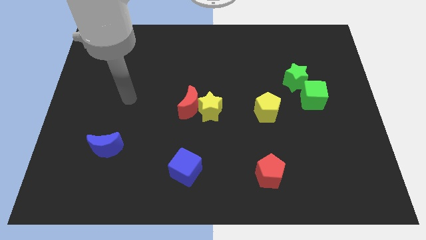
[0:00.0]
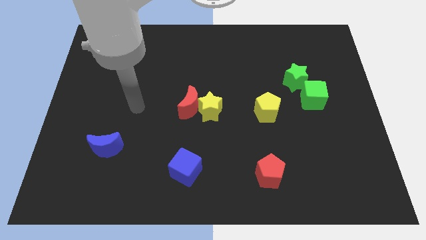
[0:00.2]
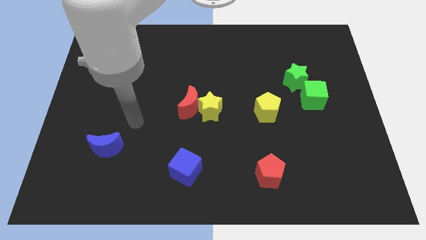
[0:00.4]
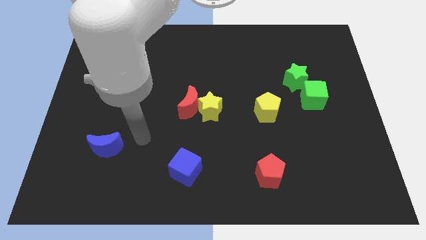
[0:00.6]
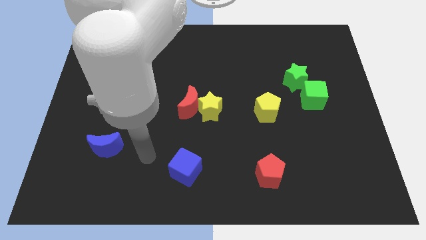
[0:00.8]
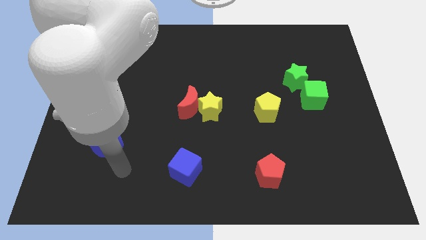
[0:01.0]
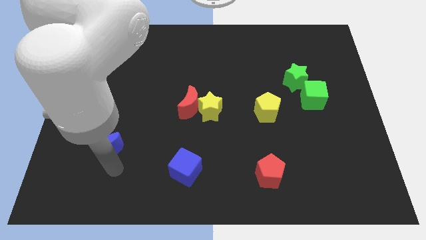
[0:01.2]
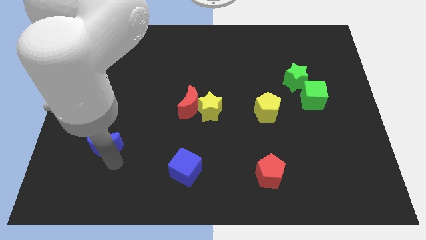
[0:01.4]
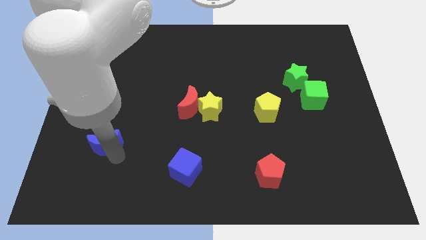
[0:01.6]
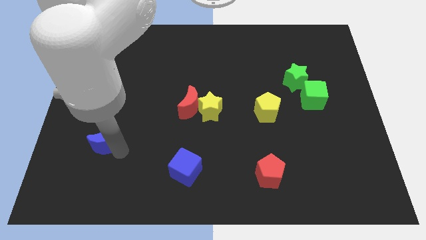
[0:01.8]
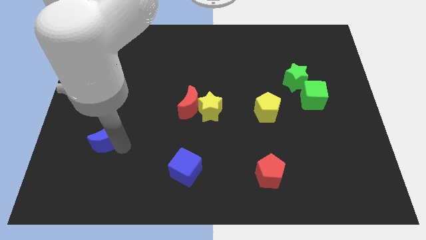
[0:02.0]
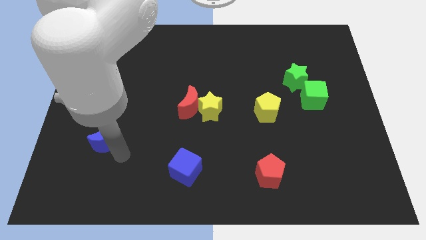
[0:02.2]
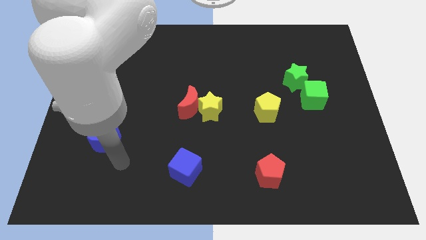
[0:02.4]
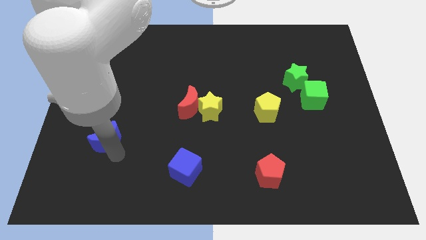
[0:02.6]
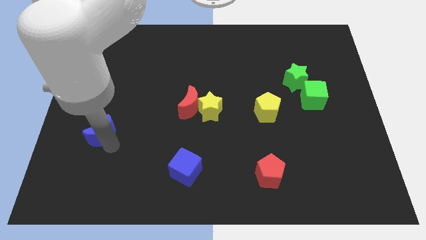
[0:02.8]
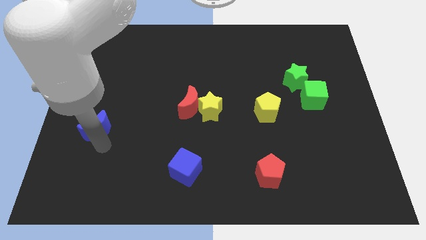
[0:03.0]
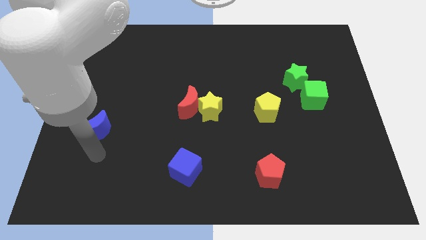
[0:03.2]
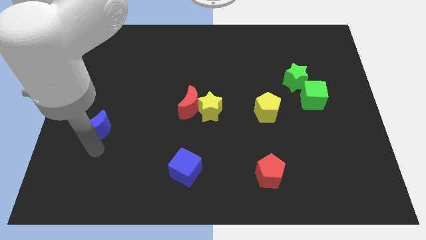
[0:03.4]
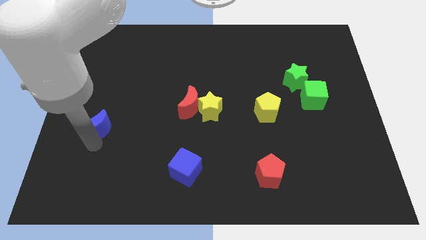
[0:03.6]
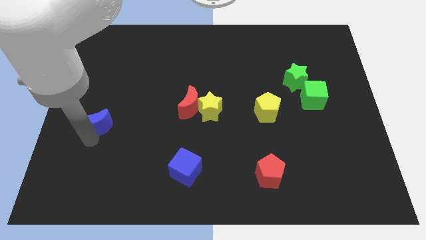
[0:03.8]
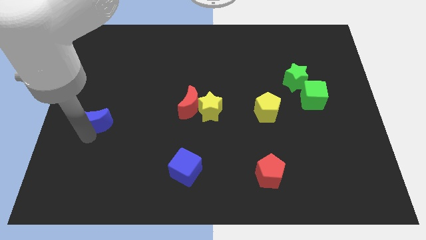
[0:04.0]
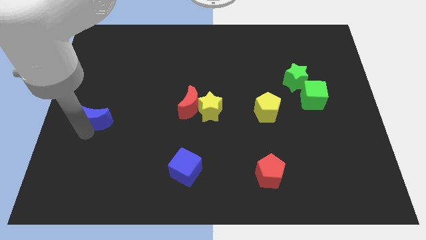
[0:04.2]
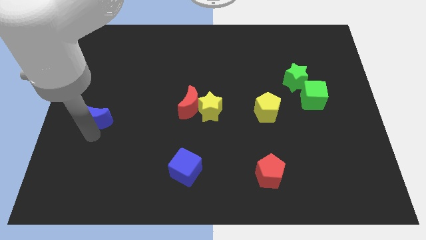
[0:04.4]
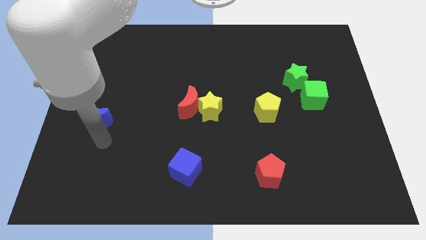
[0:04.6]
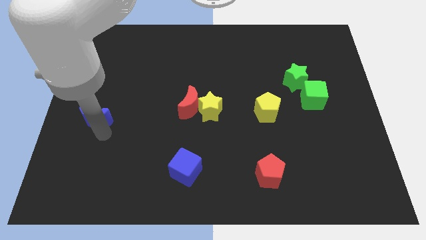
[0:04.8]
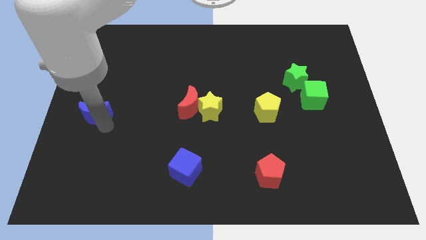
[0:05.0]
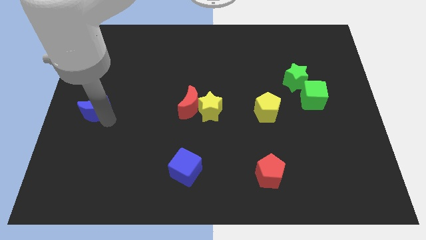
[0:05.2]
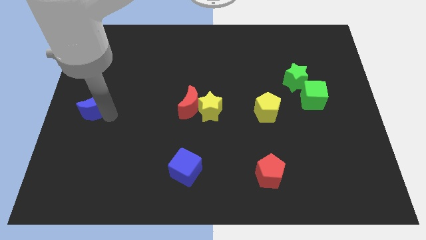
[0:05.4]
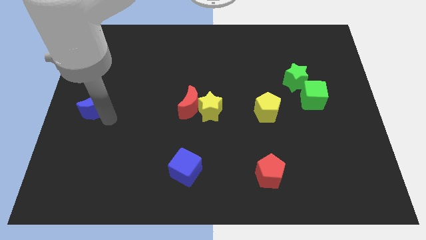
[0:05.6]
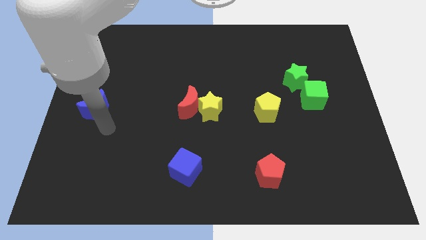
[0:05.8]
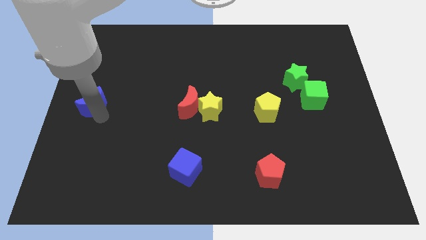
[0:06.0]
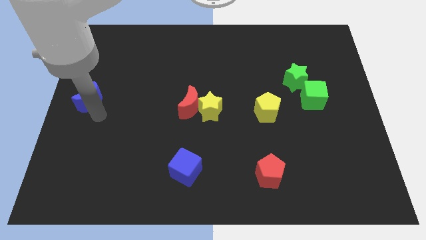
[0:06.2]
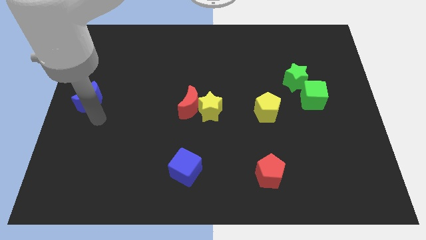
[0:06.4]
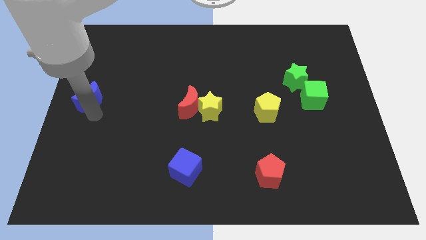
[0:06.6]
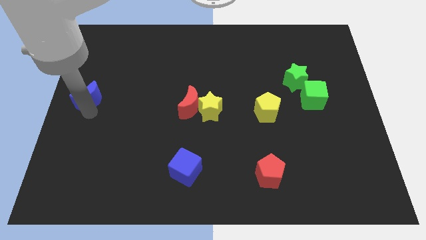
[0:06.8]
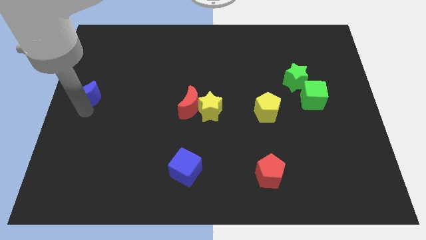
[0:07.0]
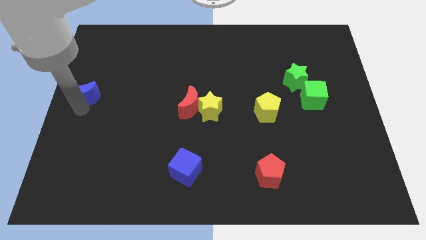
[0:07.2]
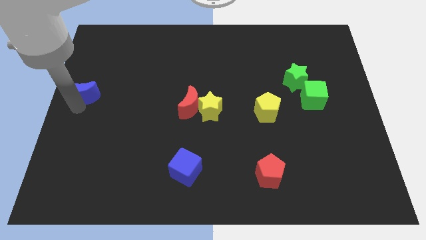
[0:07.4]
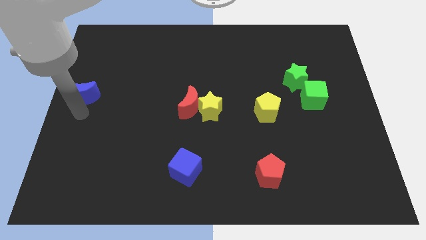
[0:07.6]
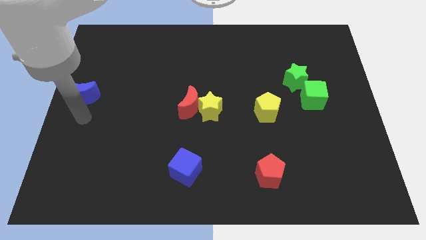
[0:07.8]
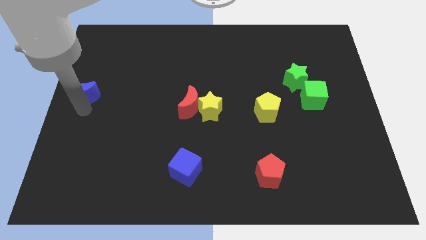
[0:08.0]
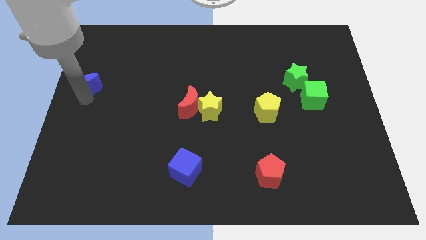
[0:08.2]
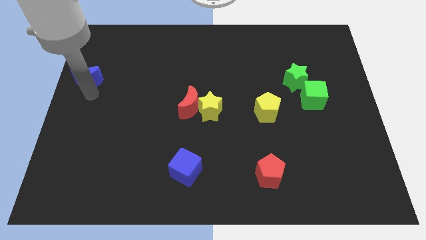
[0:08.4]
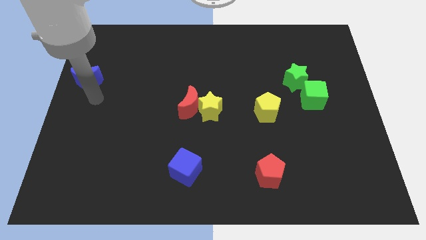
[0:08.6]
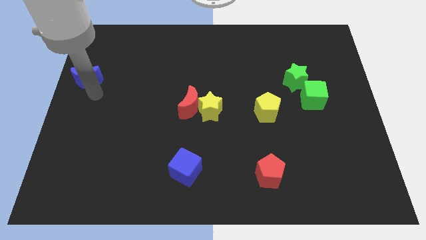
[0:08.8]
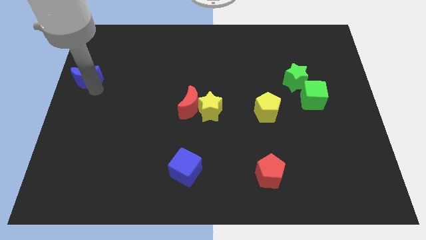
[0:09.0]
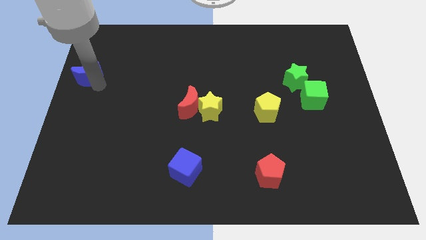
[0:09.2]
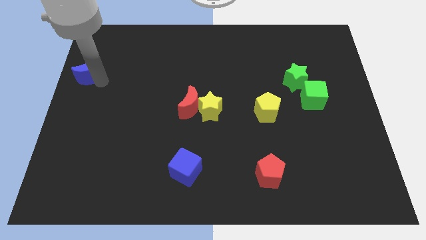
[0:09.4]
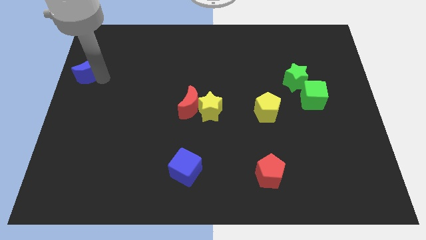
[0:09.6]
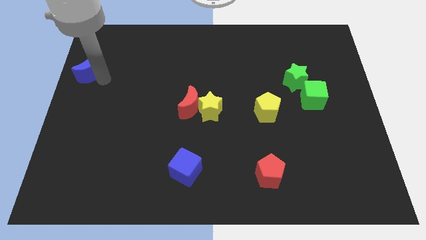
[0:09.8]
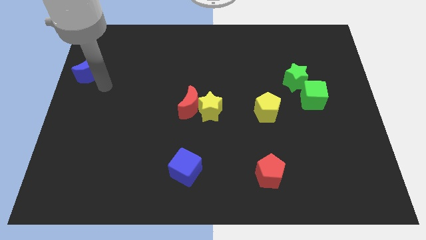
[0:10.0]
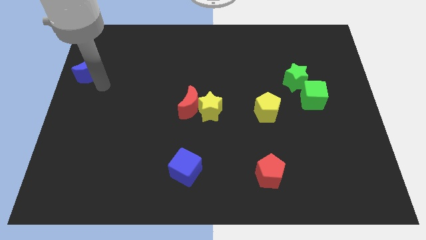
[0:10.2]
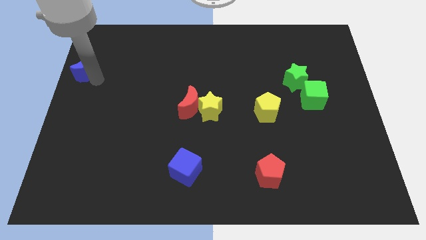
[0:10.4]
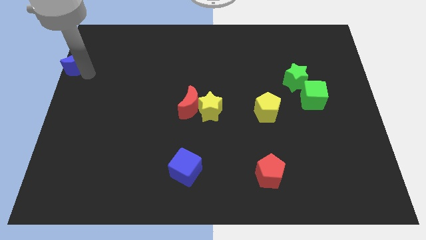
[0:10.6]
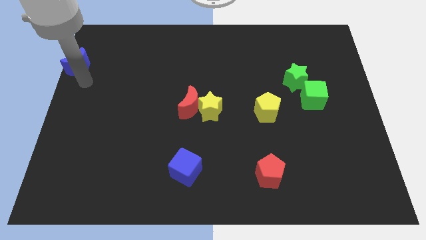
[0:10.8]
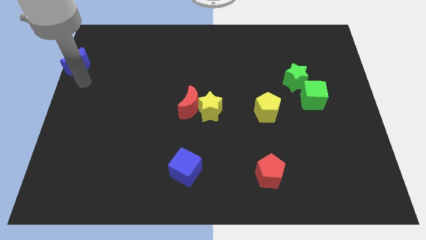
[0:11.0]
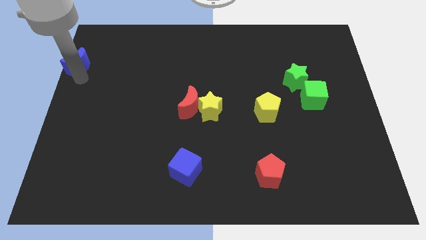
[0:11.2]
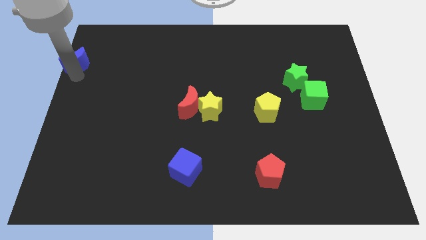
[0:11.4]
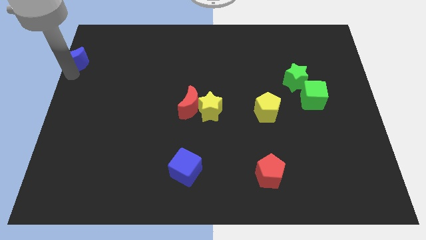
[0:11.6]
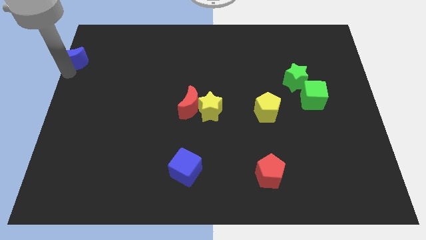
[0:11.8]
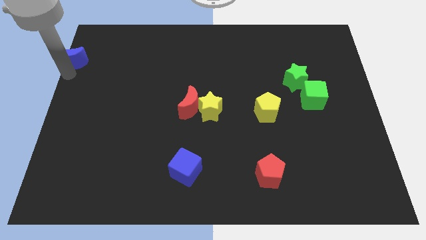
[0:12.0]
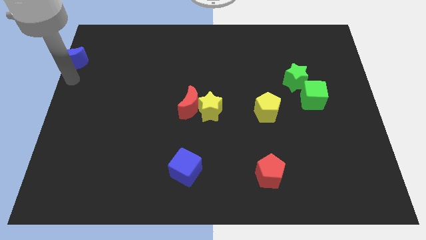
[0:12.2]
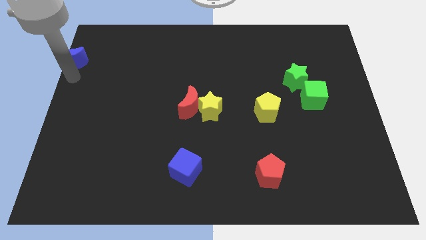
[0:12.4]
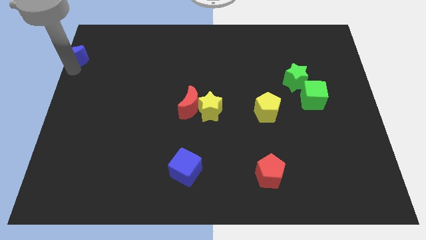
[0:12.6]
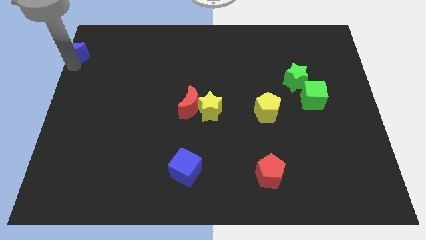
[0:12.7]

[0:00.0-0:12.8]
move the blue moon to the top left corner

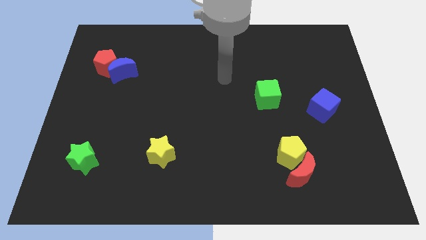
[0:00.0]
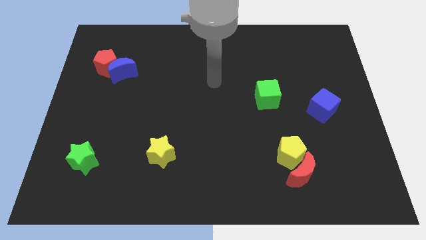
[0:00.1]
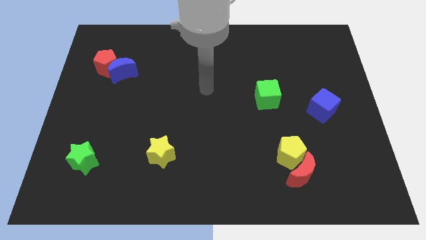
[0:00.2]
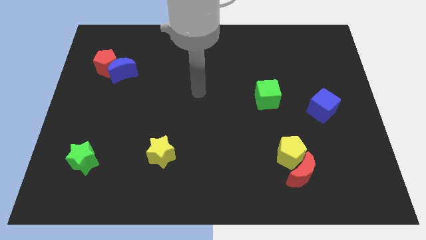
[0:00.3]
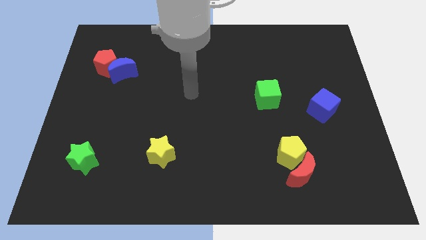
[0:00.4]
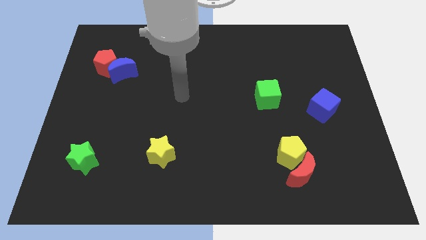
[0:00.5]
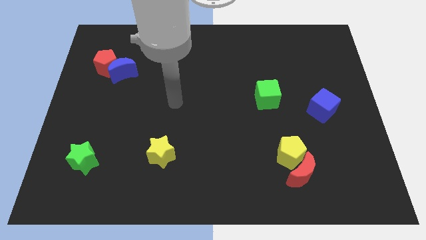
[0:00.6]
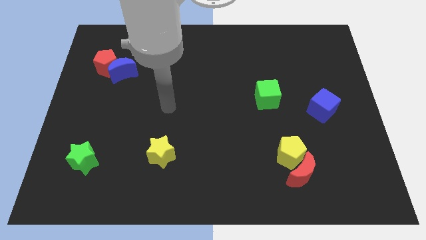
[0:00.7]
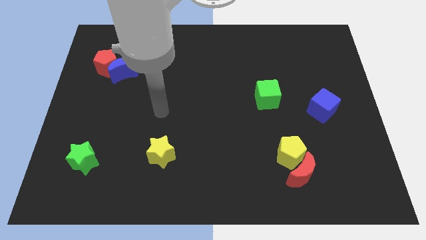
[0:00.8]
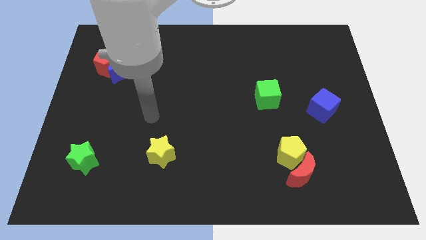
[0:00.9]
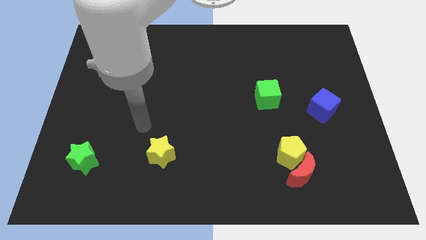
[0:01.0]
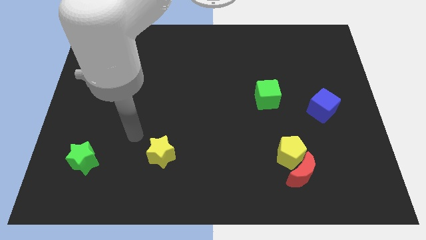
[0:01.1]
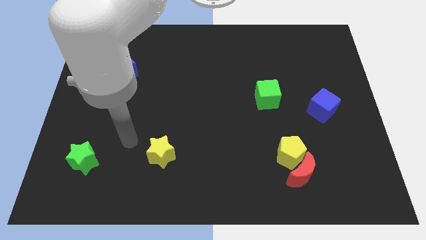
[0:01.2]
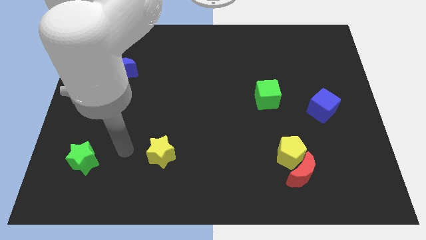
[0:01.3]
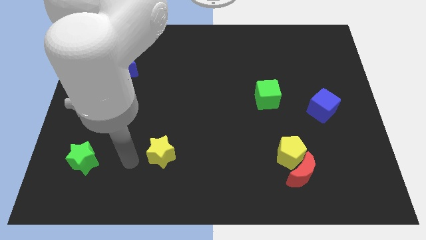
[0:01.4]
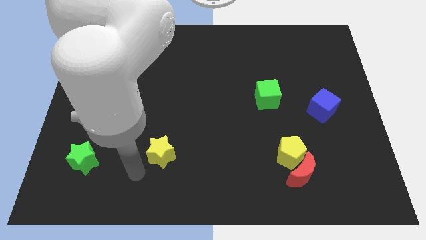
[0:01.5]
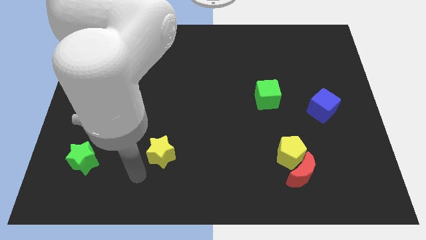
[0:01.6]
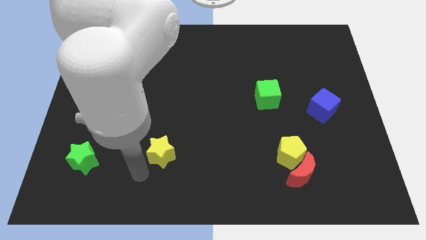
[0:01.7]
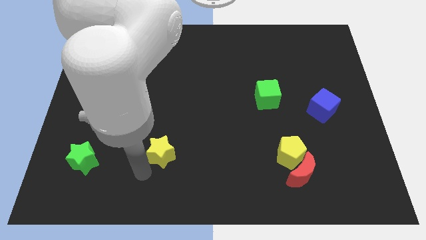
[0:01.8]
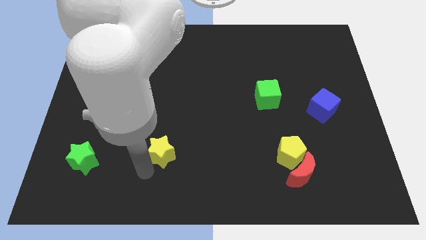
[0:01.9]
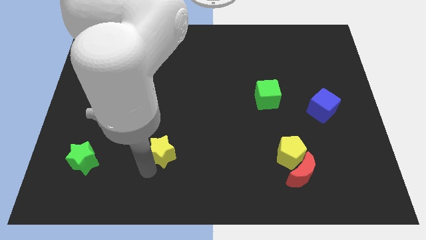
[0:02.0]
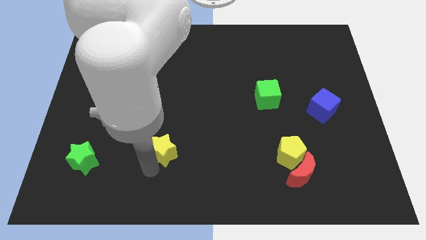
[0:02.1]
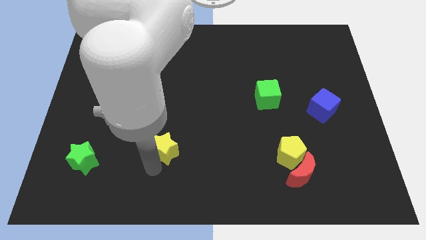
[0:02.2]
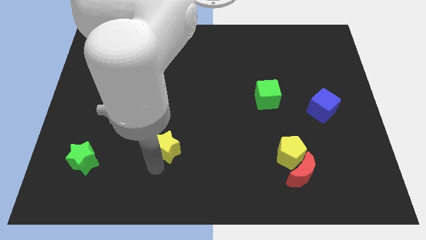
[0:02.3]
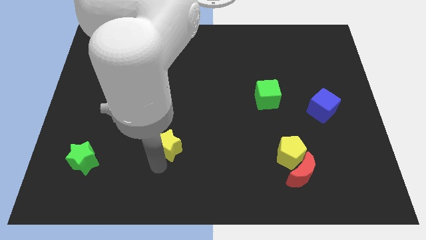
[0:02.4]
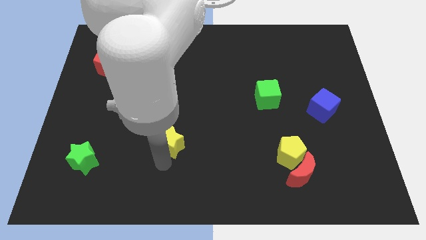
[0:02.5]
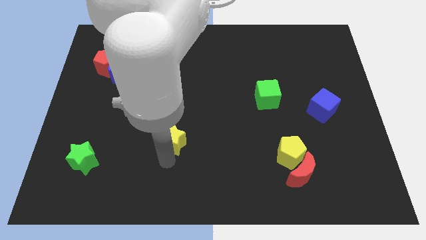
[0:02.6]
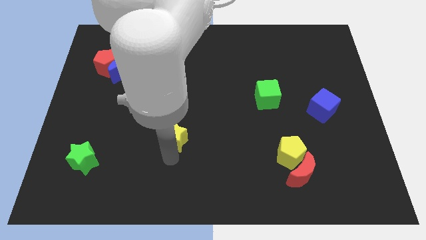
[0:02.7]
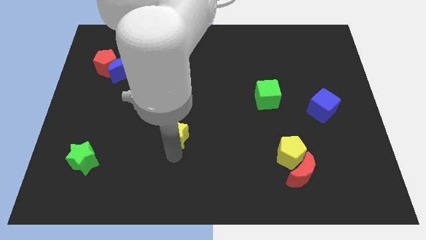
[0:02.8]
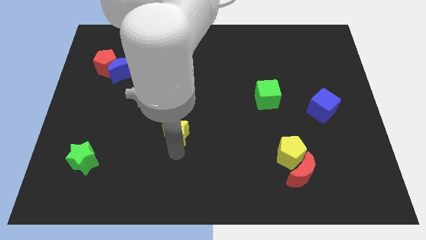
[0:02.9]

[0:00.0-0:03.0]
put the yellow star to the center of the board
